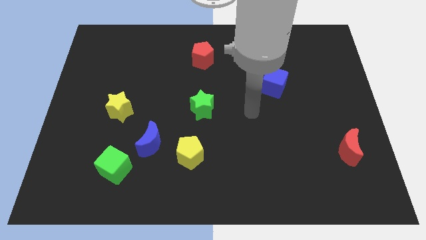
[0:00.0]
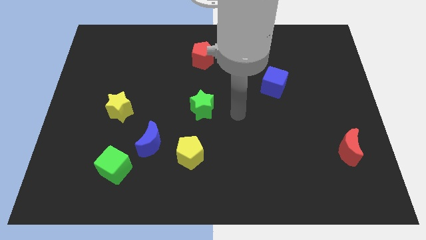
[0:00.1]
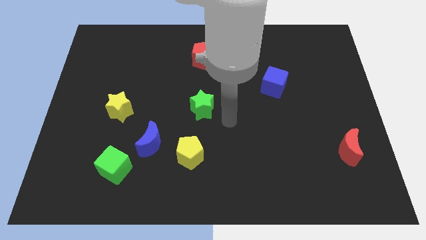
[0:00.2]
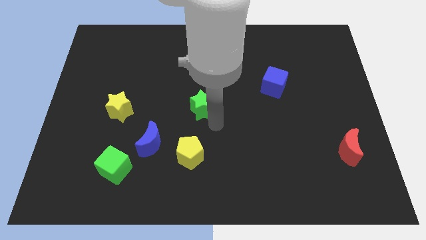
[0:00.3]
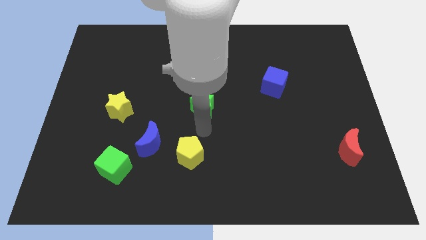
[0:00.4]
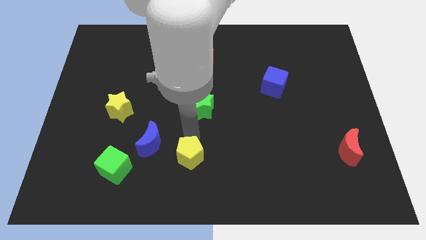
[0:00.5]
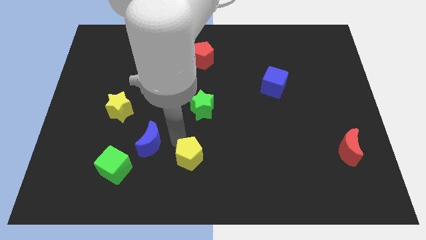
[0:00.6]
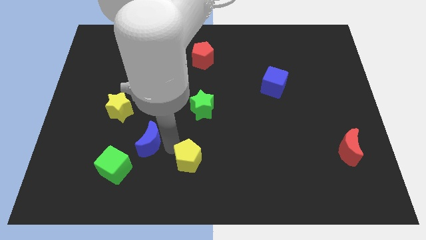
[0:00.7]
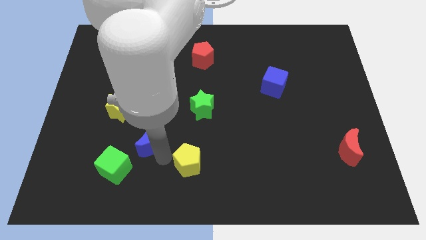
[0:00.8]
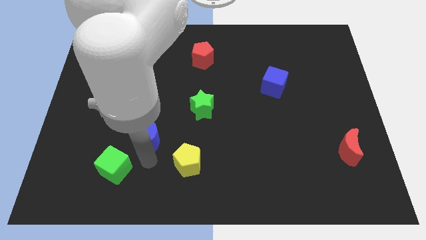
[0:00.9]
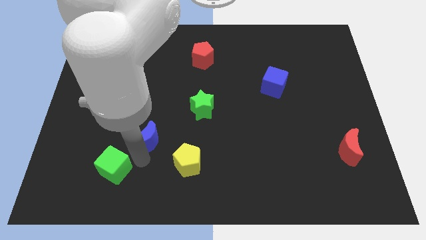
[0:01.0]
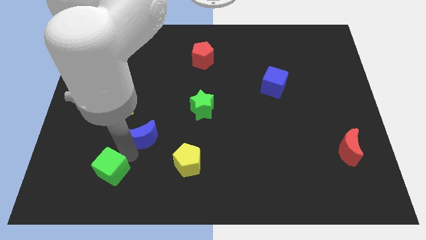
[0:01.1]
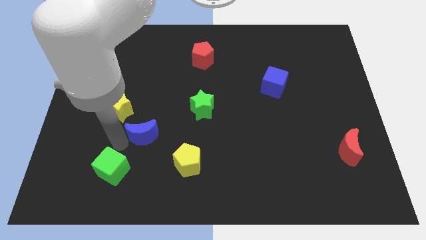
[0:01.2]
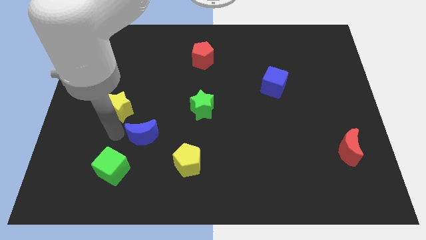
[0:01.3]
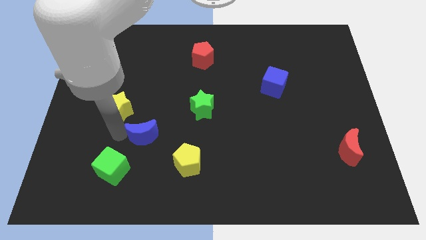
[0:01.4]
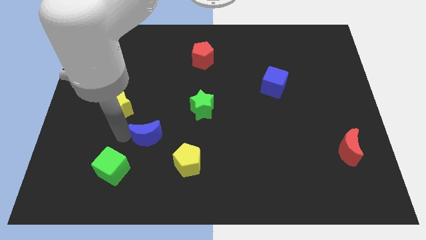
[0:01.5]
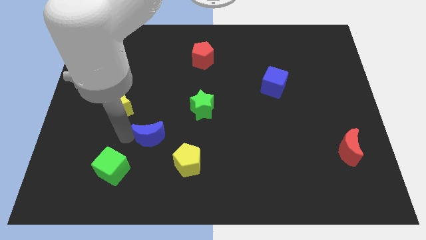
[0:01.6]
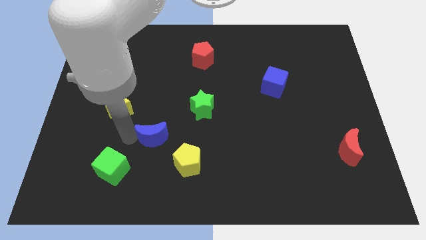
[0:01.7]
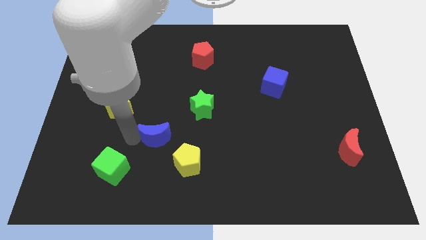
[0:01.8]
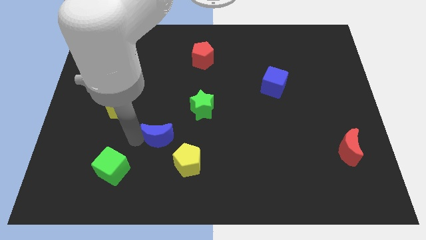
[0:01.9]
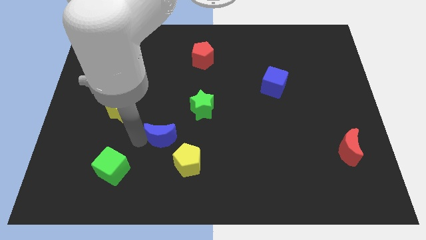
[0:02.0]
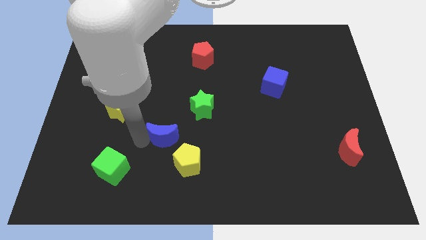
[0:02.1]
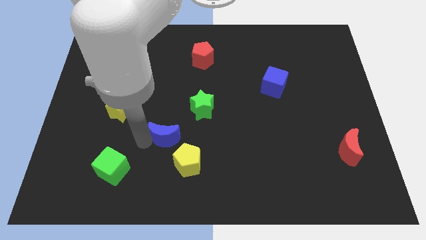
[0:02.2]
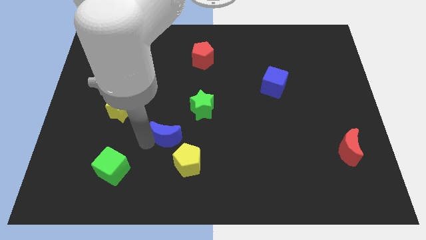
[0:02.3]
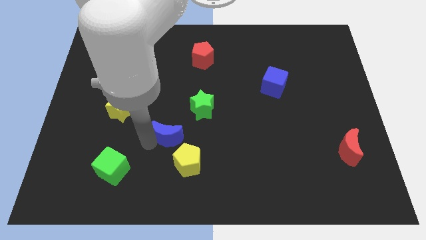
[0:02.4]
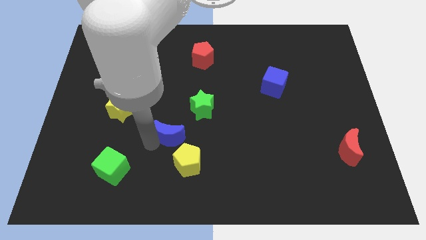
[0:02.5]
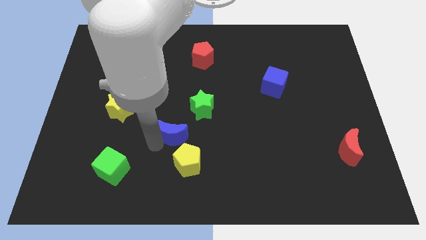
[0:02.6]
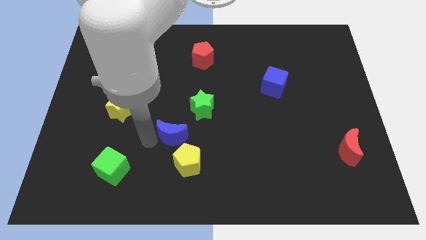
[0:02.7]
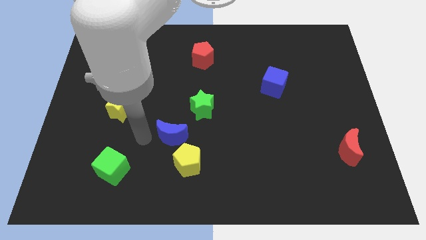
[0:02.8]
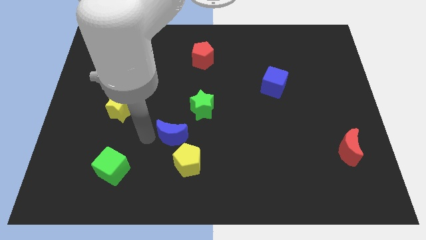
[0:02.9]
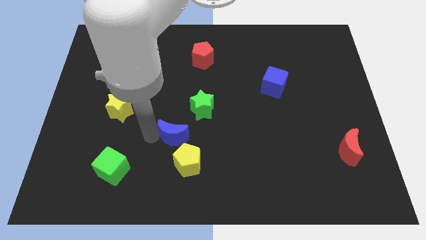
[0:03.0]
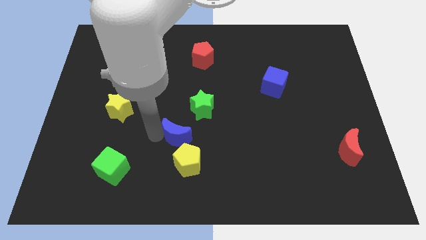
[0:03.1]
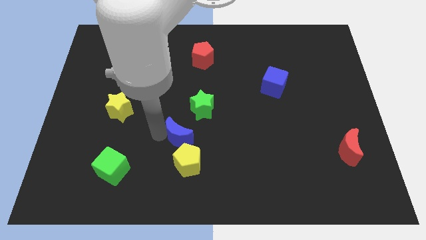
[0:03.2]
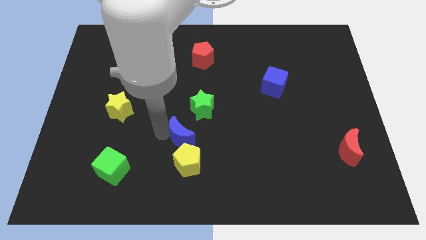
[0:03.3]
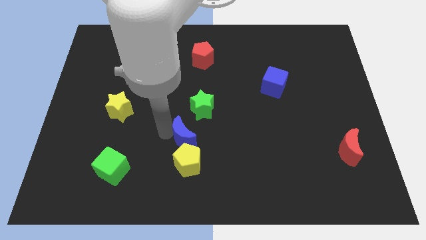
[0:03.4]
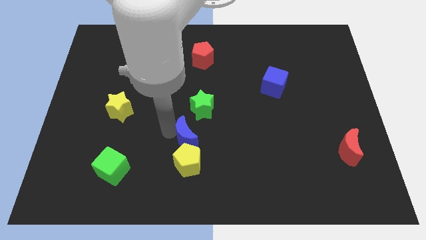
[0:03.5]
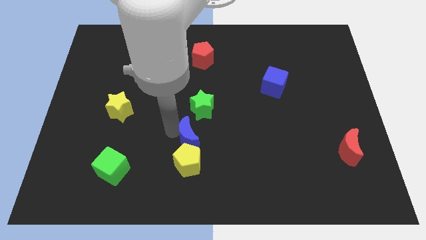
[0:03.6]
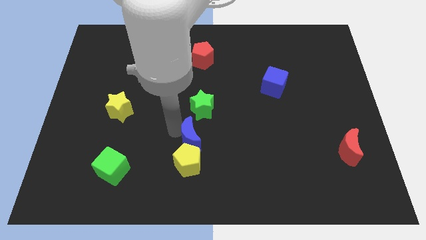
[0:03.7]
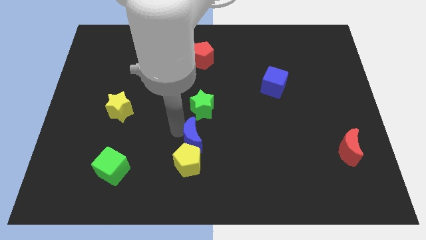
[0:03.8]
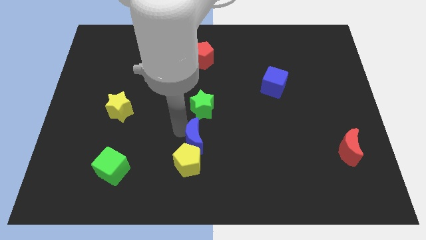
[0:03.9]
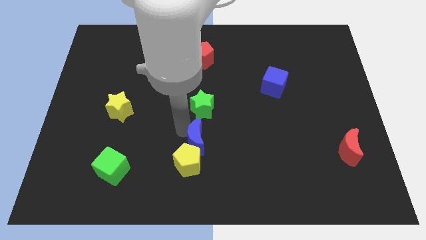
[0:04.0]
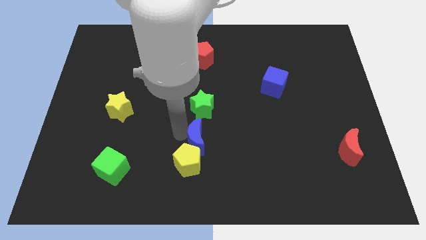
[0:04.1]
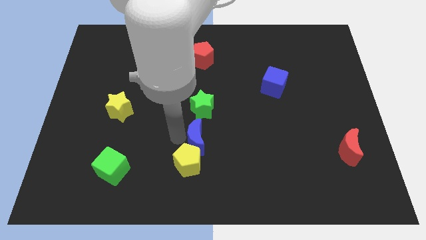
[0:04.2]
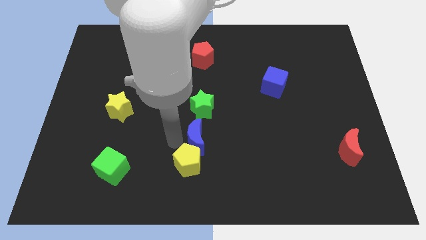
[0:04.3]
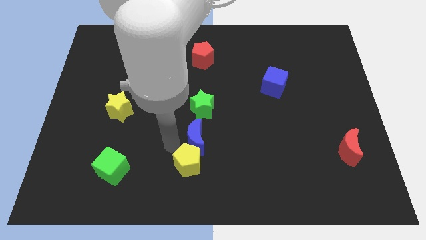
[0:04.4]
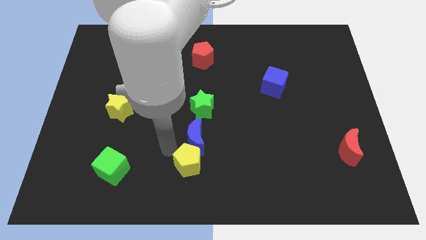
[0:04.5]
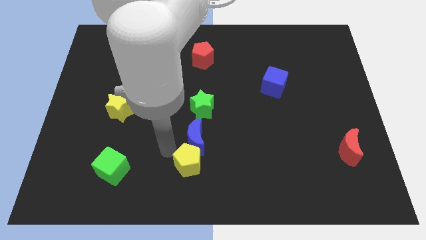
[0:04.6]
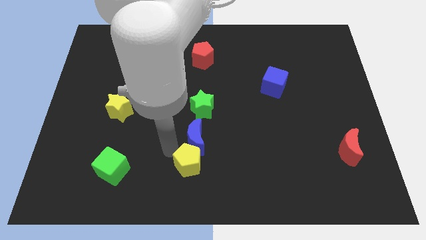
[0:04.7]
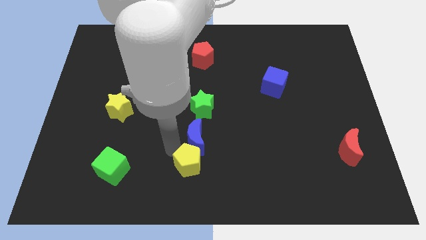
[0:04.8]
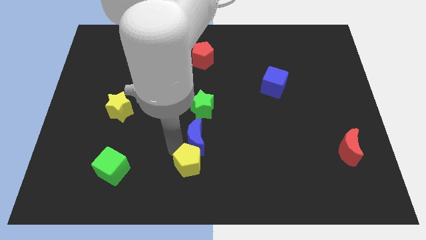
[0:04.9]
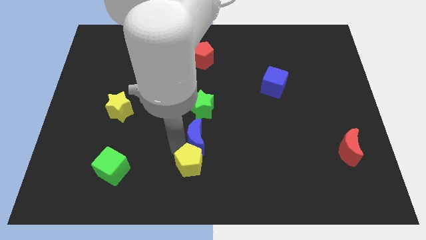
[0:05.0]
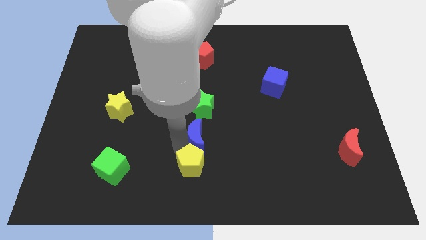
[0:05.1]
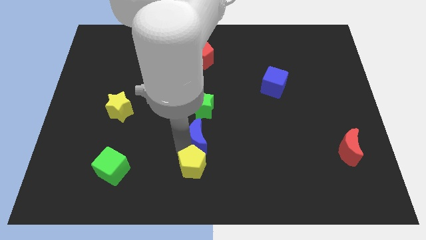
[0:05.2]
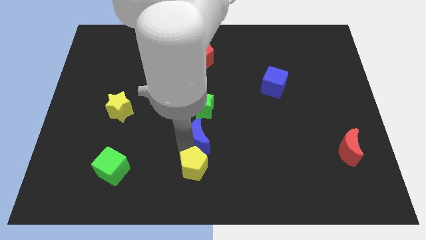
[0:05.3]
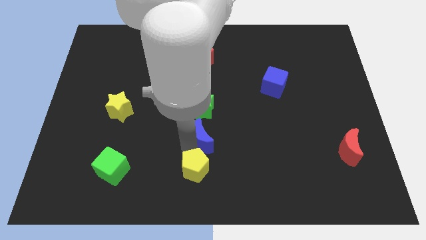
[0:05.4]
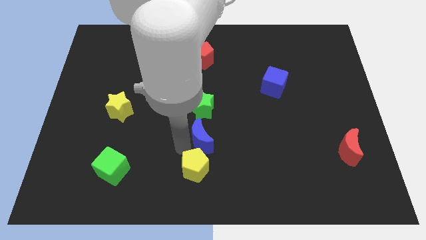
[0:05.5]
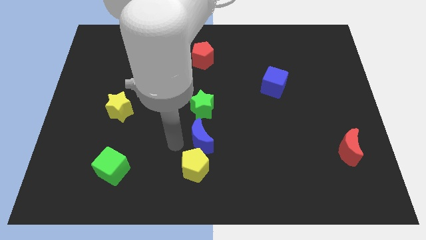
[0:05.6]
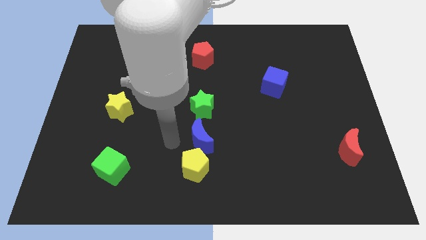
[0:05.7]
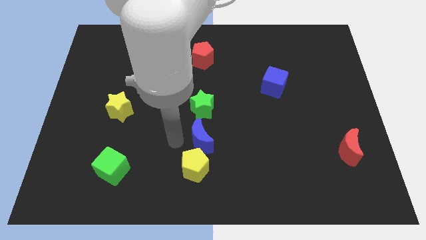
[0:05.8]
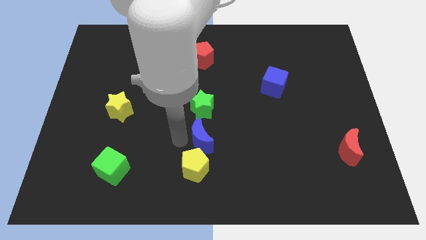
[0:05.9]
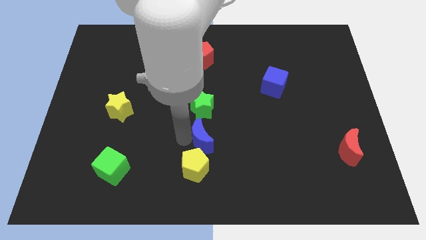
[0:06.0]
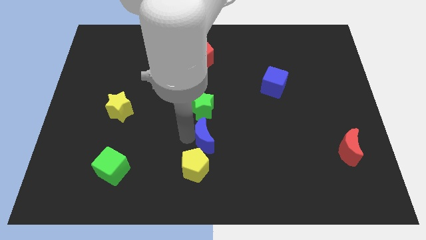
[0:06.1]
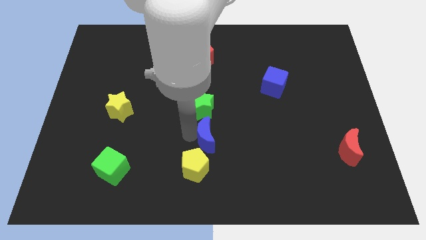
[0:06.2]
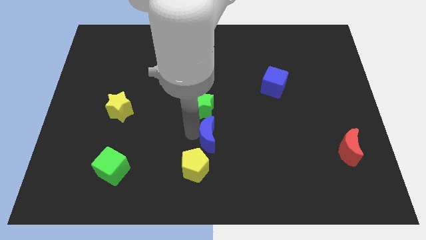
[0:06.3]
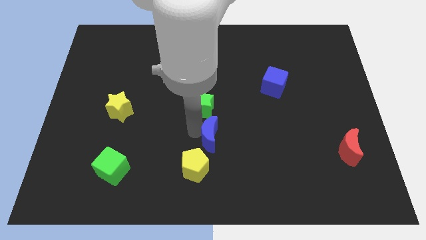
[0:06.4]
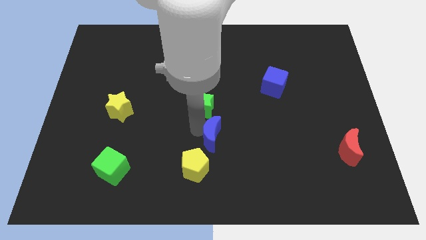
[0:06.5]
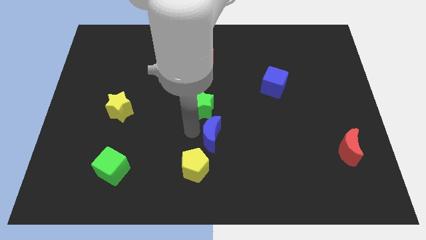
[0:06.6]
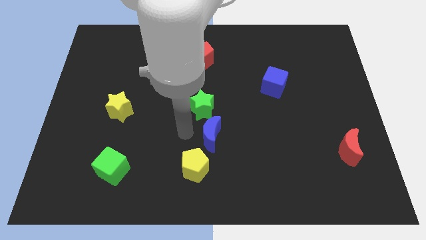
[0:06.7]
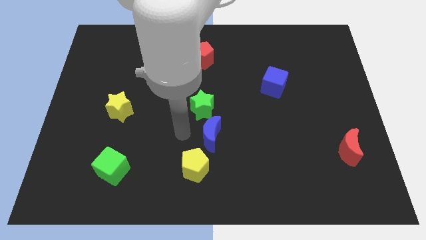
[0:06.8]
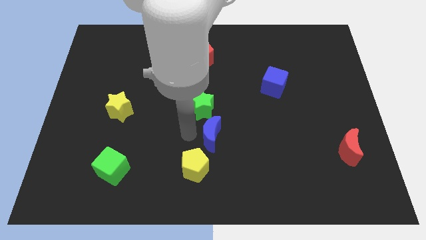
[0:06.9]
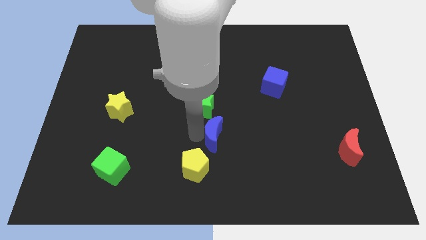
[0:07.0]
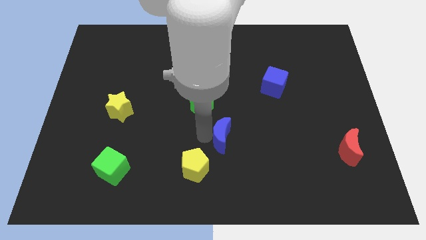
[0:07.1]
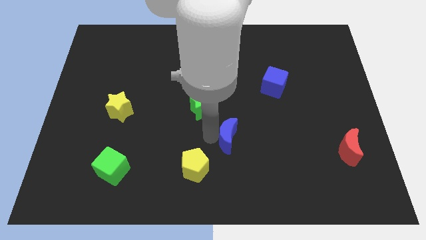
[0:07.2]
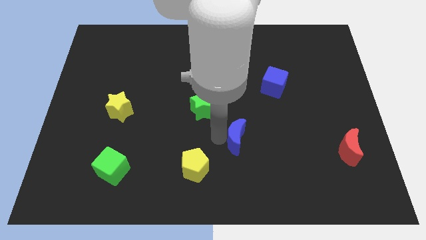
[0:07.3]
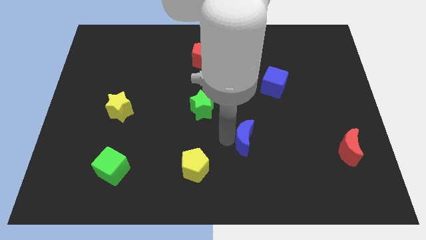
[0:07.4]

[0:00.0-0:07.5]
slide the blue moon right

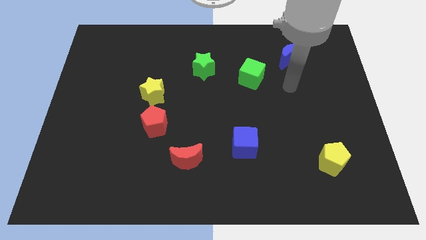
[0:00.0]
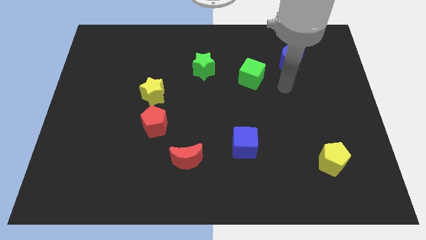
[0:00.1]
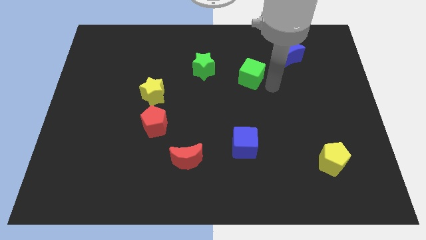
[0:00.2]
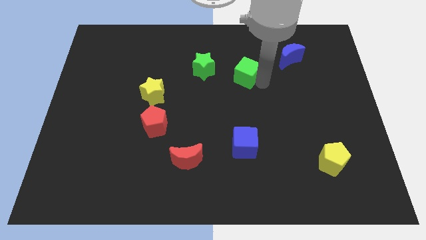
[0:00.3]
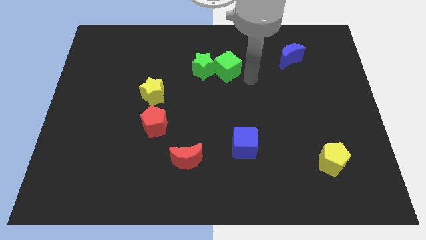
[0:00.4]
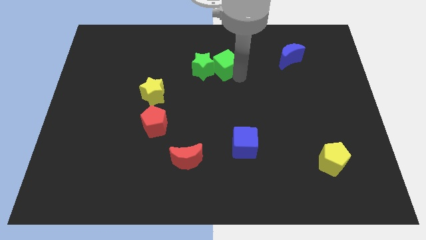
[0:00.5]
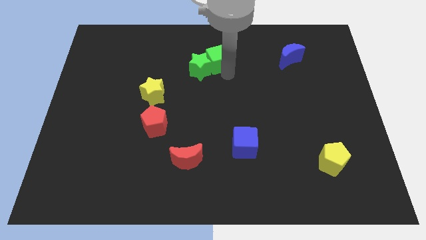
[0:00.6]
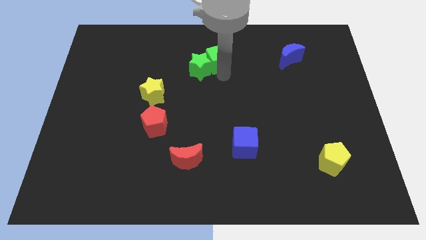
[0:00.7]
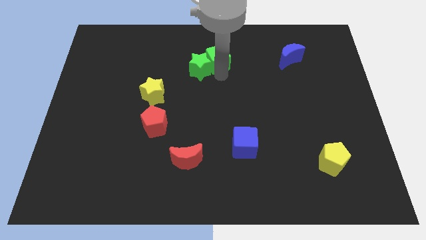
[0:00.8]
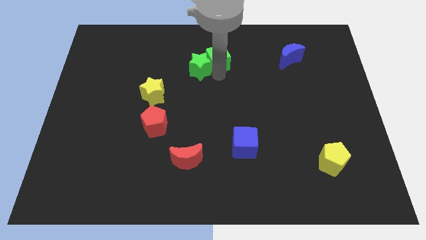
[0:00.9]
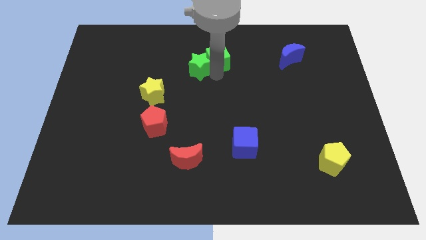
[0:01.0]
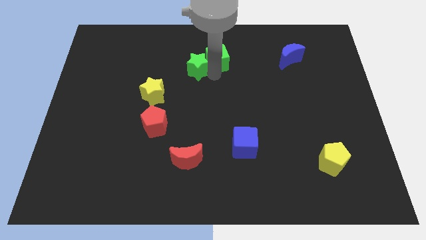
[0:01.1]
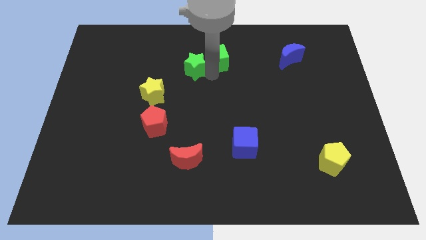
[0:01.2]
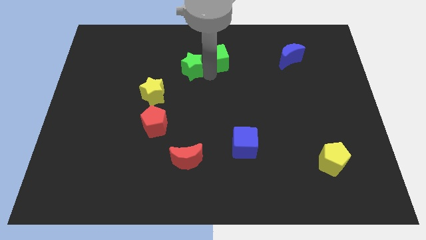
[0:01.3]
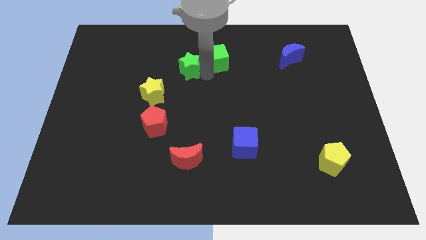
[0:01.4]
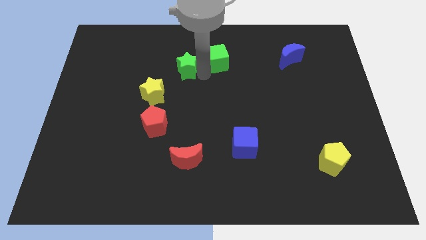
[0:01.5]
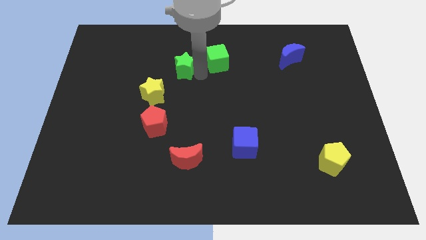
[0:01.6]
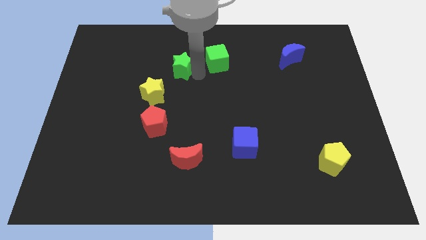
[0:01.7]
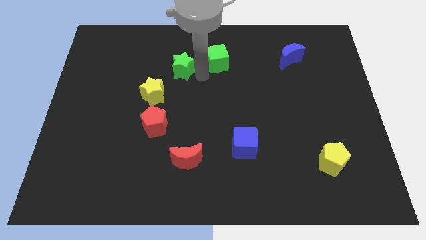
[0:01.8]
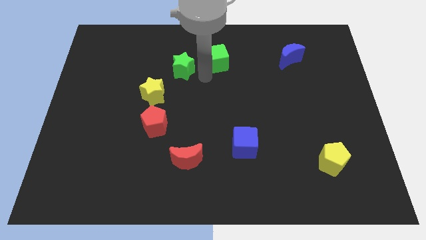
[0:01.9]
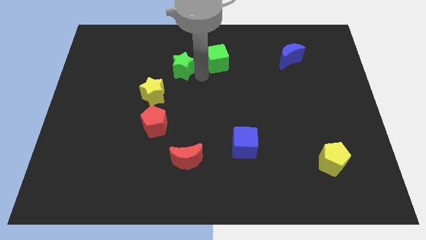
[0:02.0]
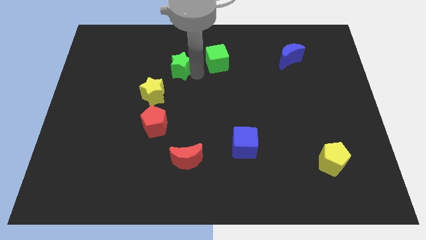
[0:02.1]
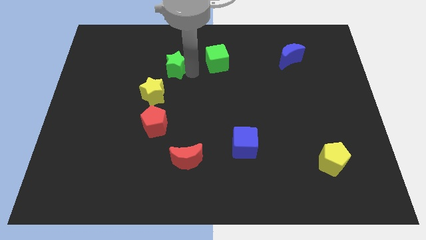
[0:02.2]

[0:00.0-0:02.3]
move the green star a little bit to the left
